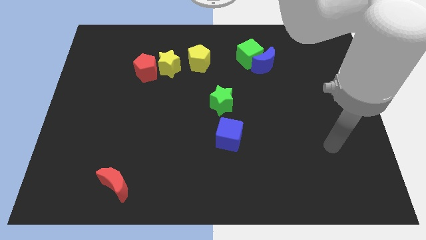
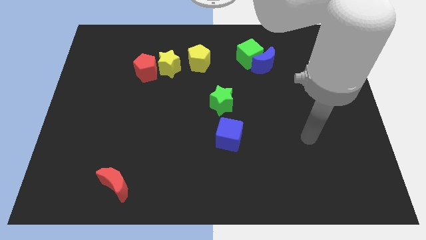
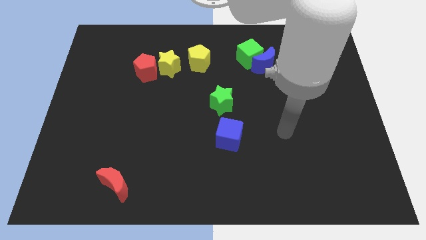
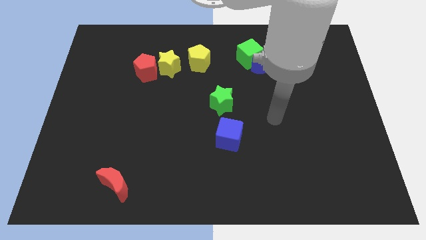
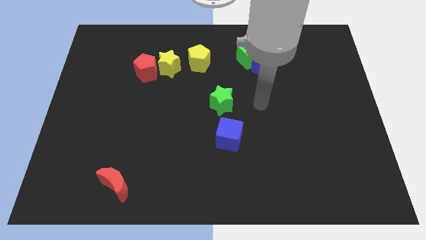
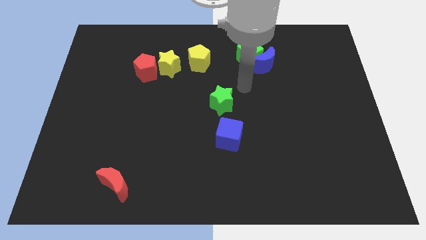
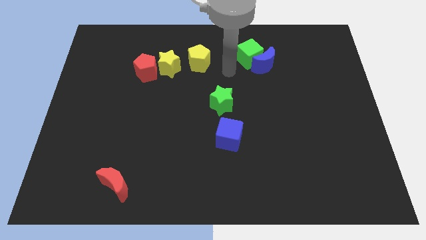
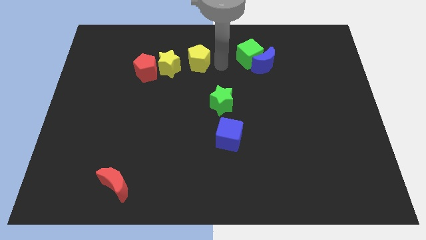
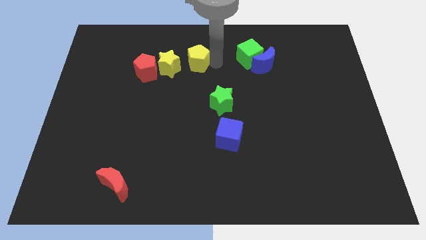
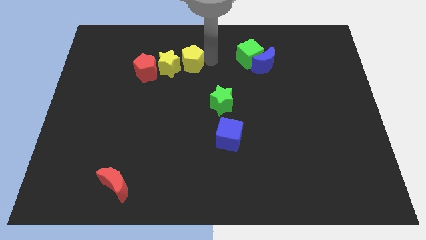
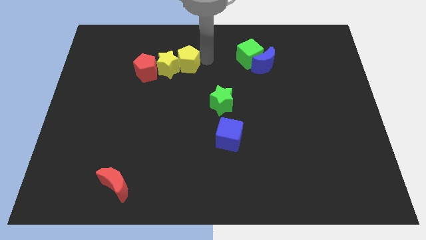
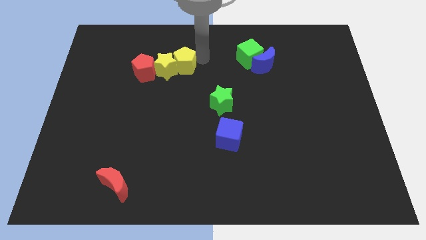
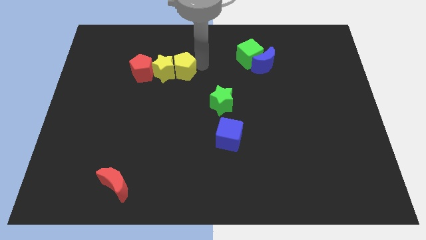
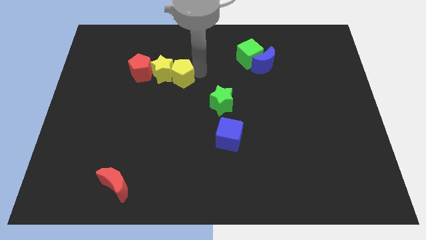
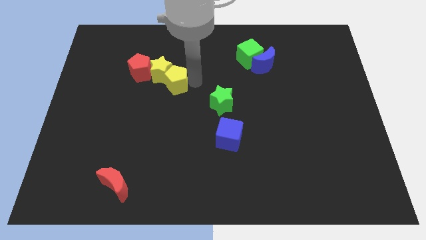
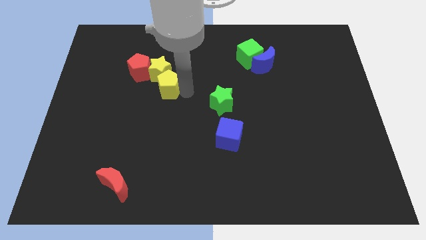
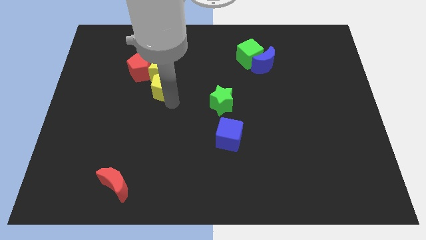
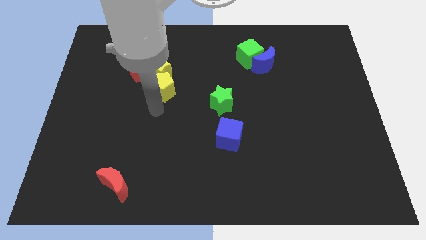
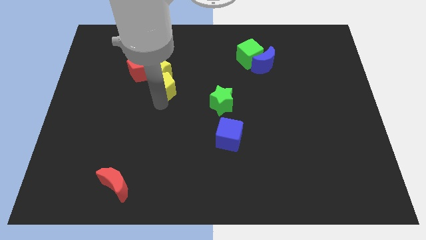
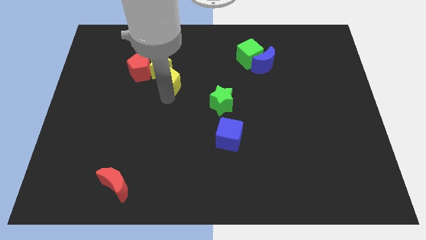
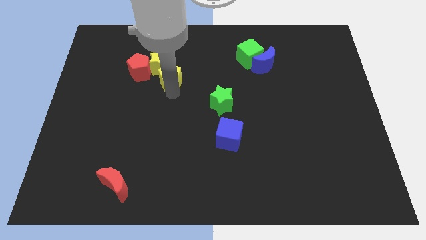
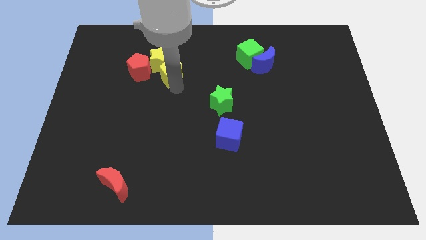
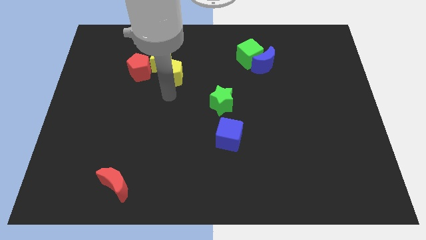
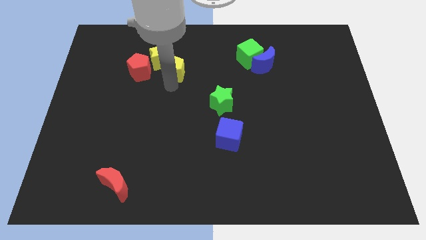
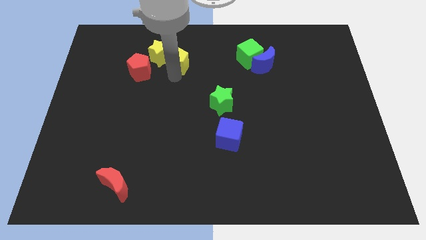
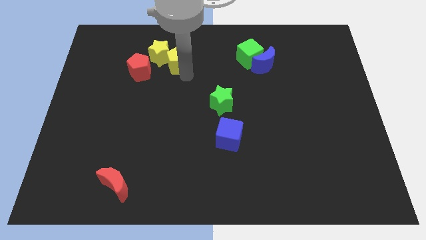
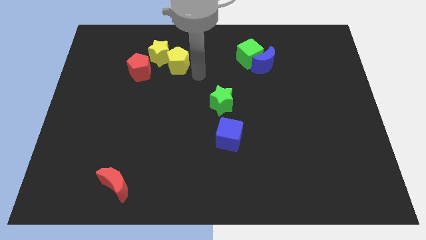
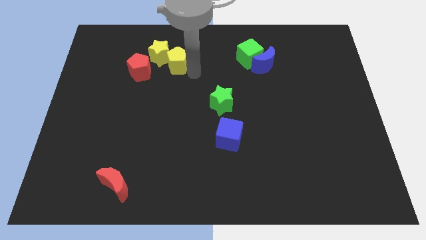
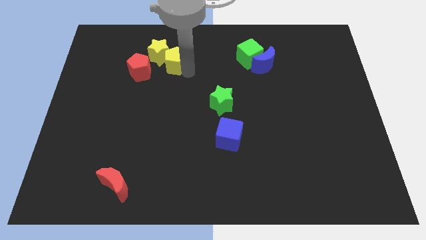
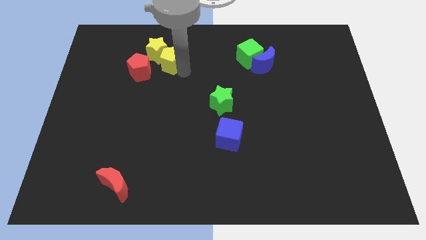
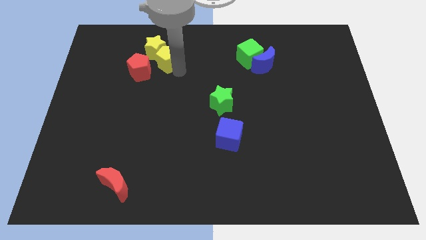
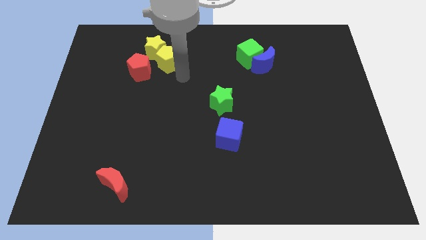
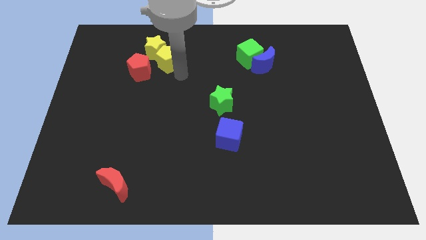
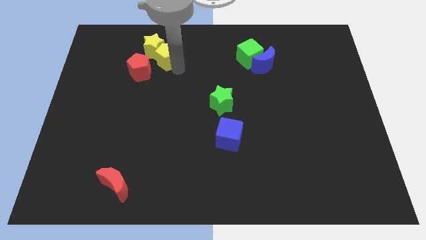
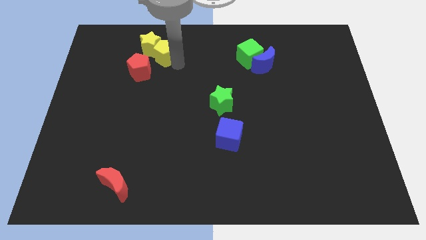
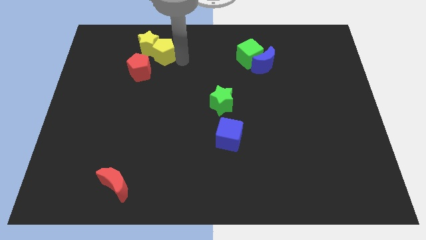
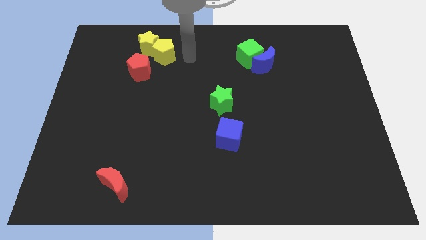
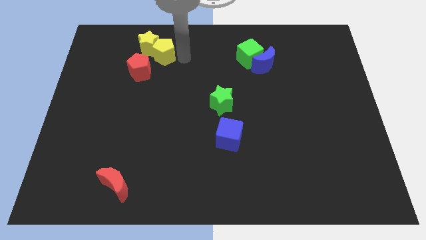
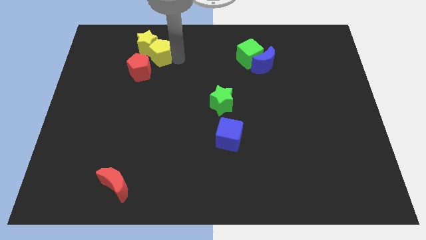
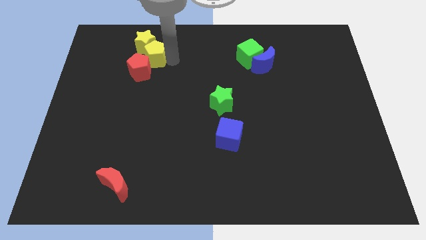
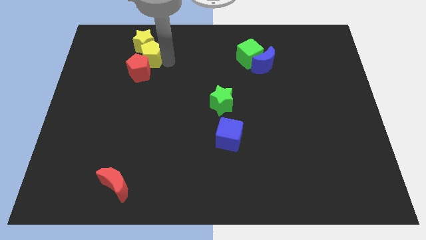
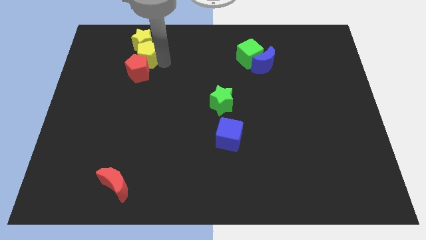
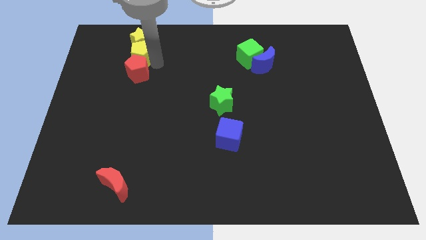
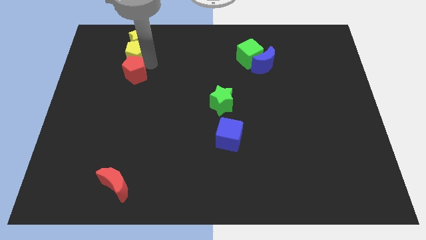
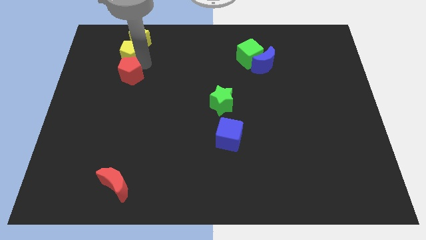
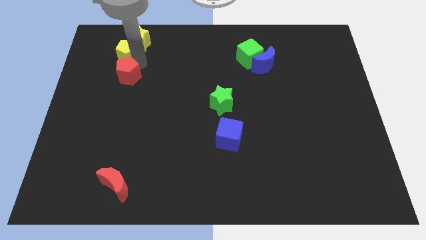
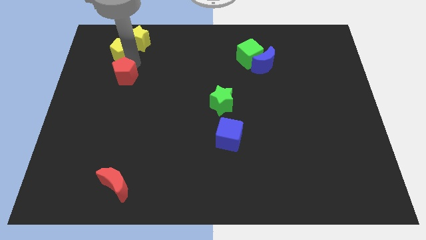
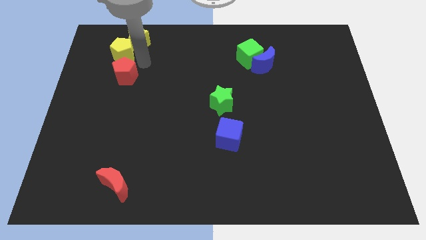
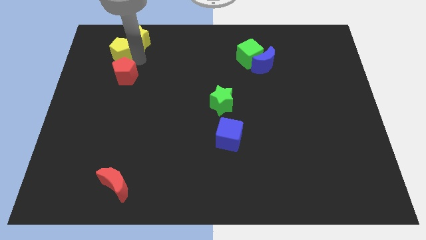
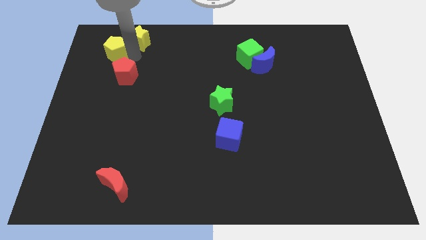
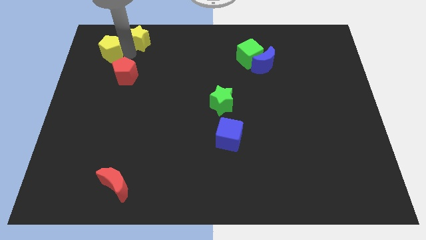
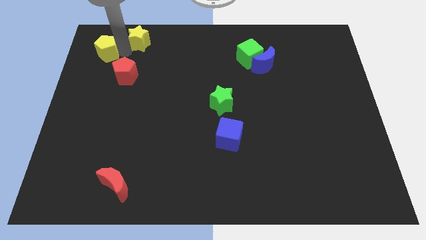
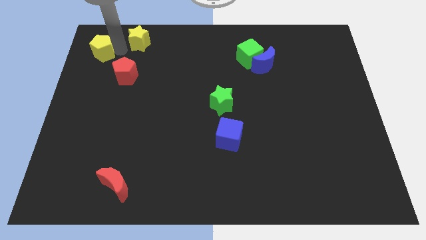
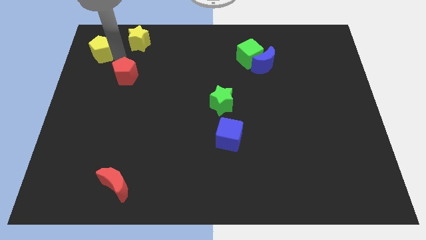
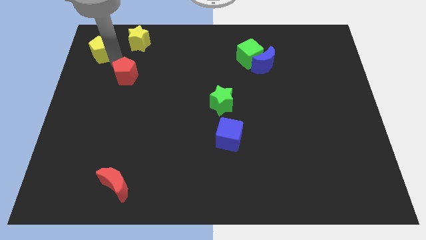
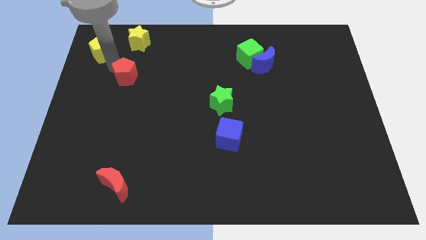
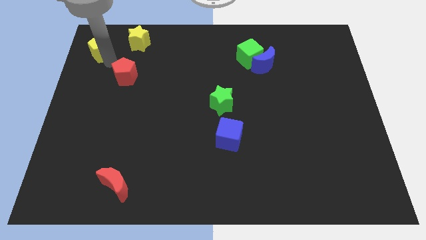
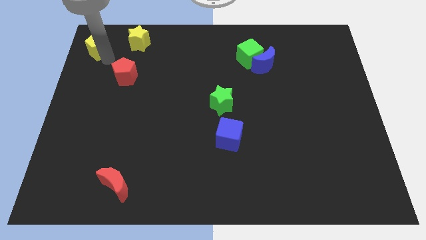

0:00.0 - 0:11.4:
slide the yellow pentagon to the top left corner

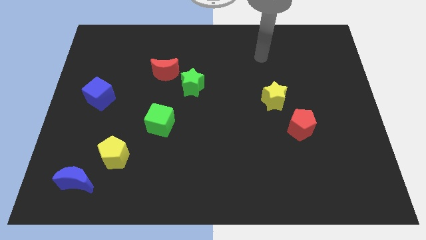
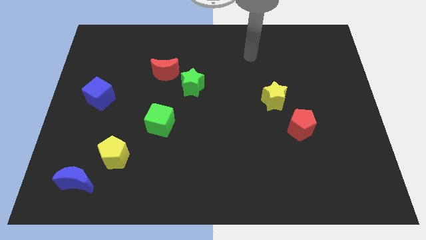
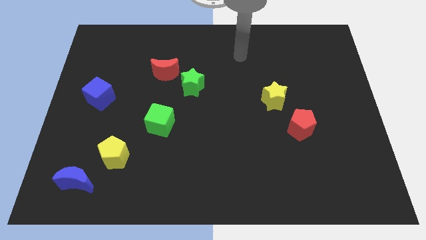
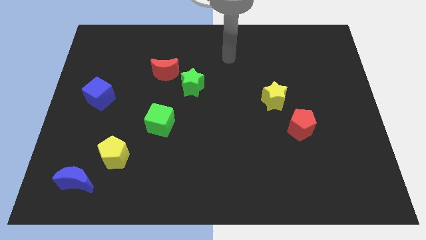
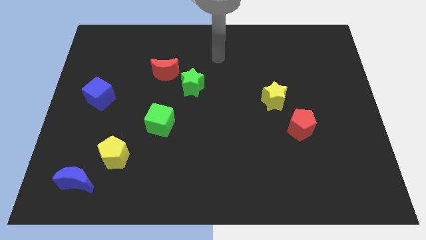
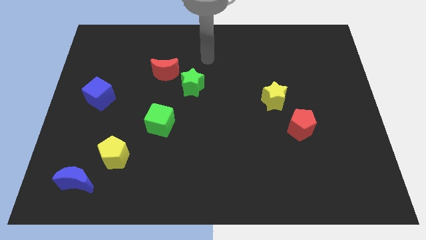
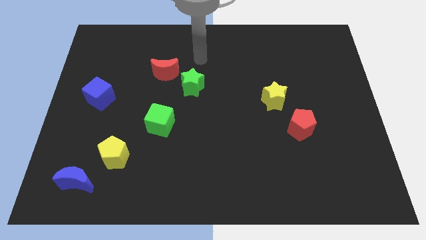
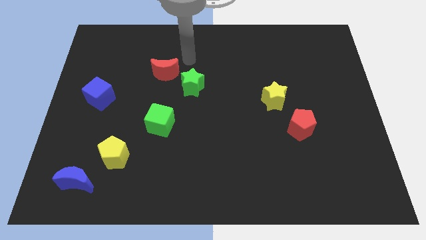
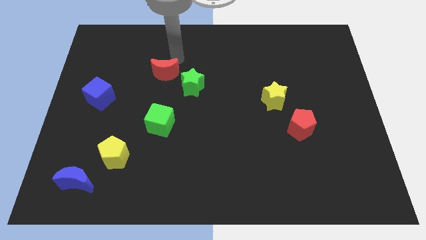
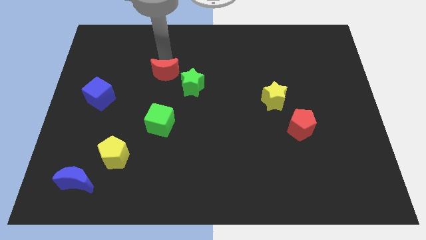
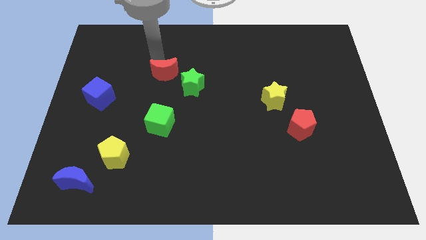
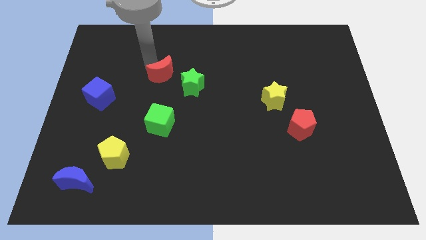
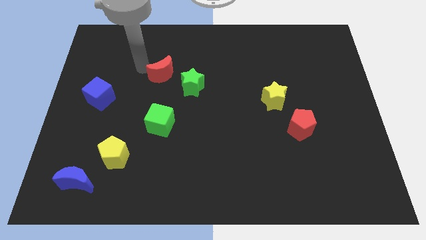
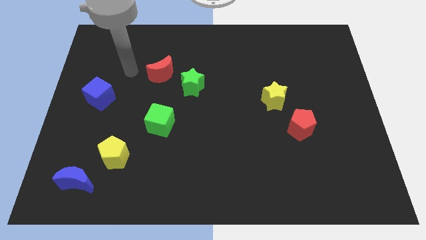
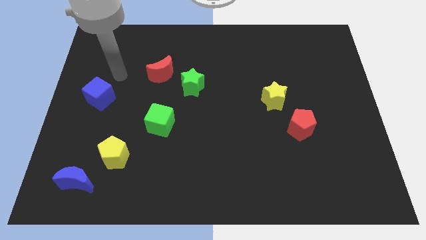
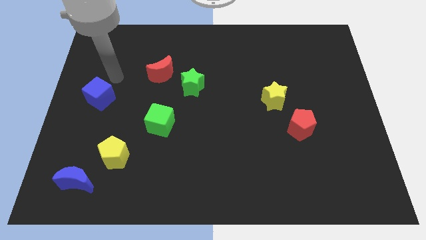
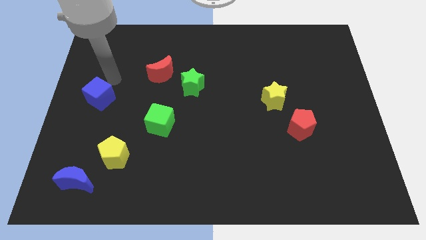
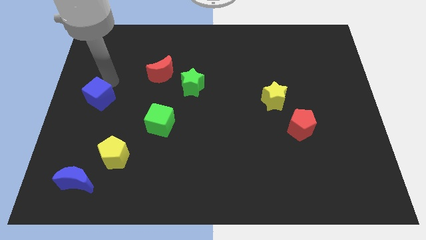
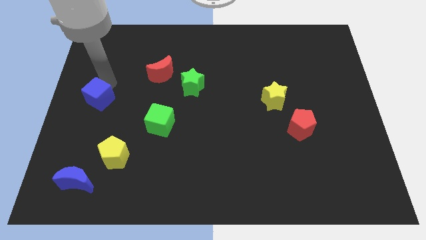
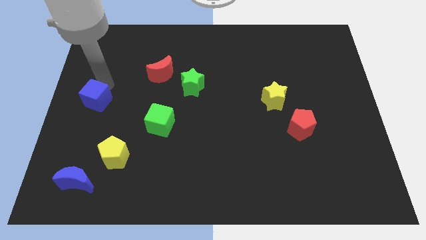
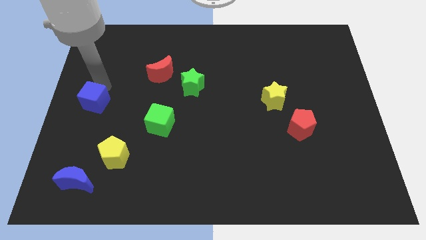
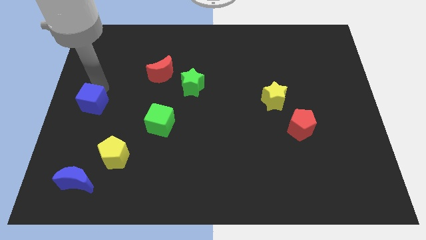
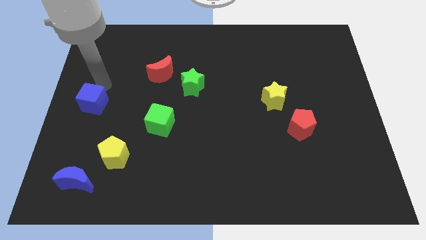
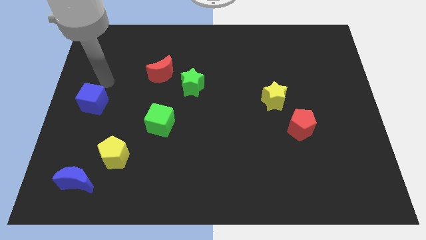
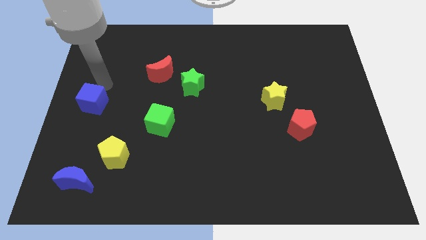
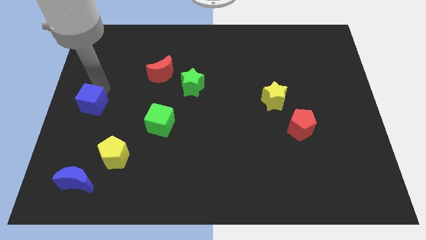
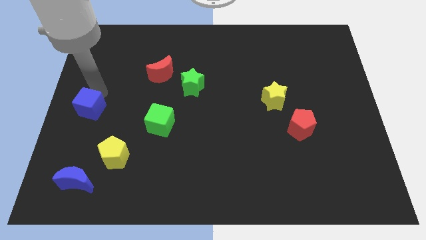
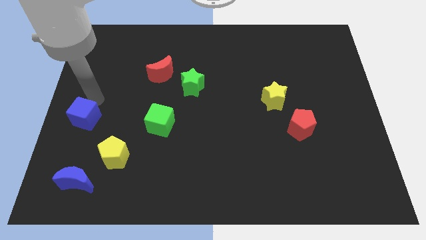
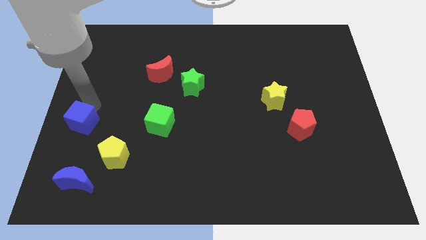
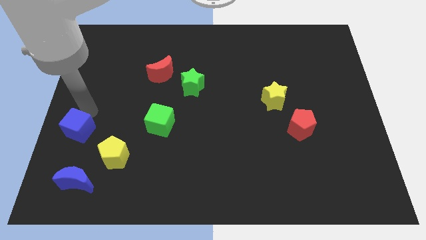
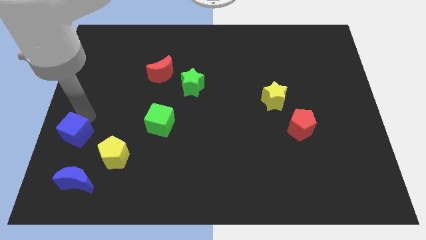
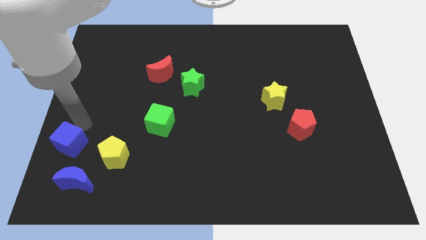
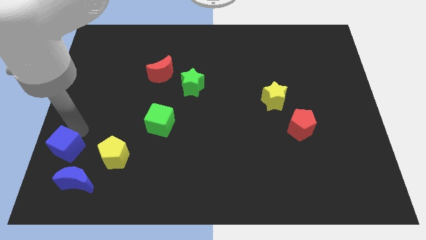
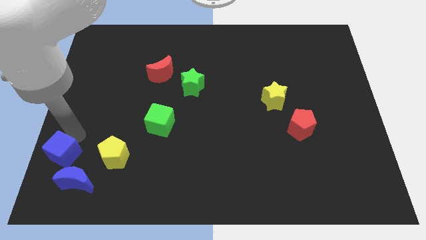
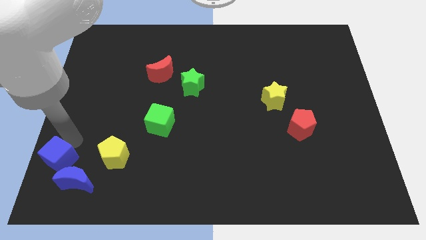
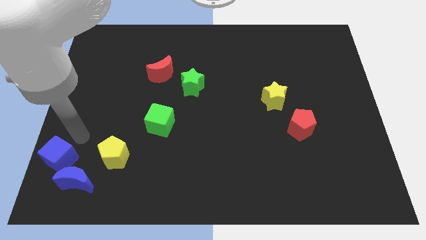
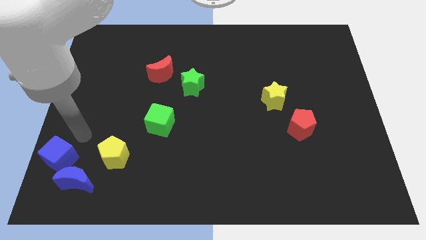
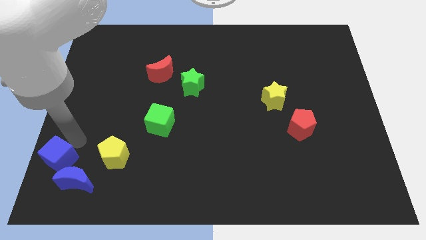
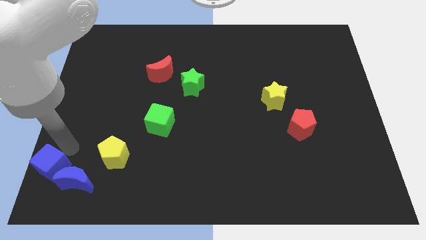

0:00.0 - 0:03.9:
move the blue cube to the bottom left
